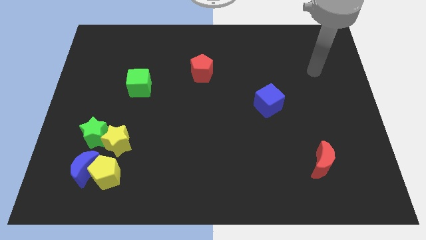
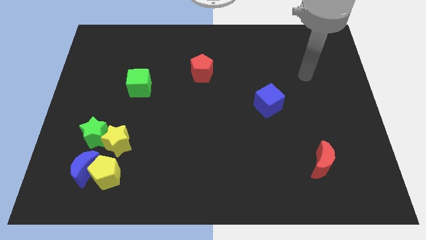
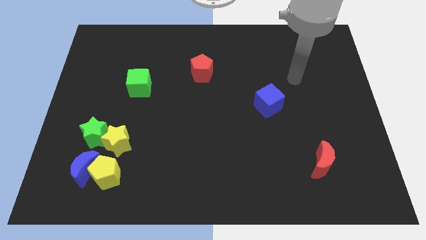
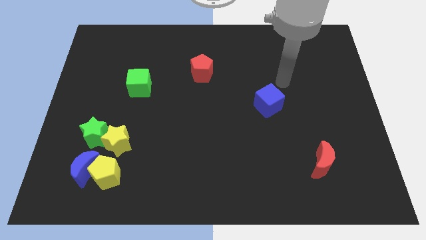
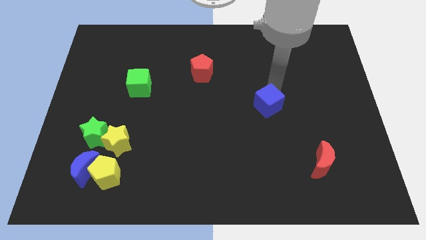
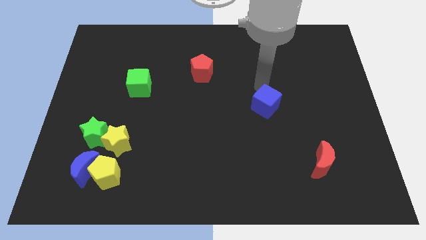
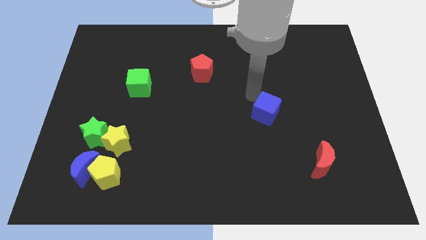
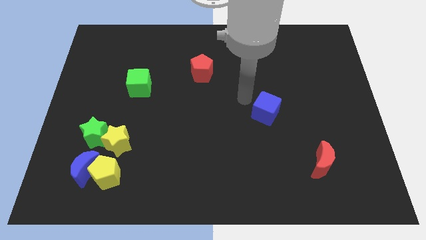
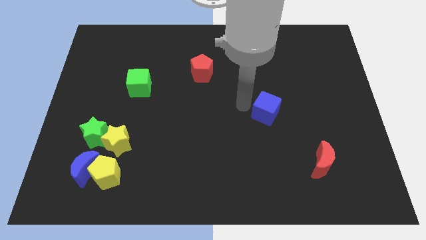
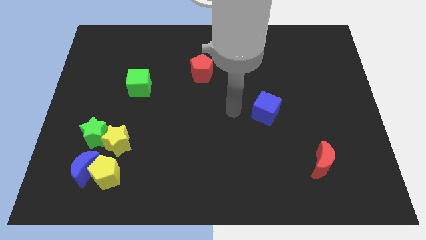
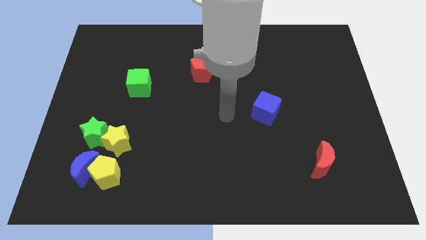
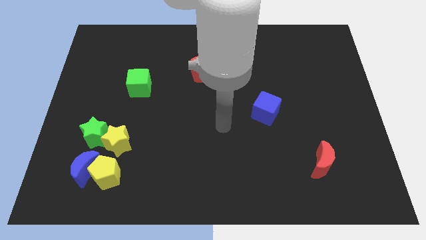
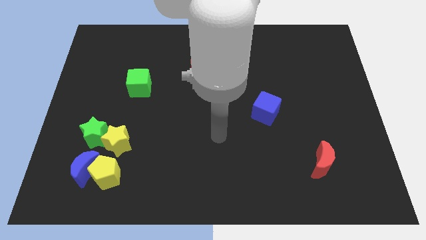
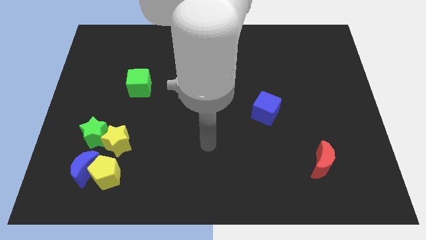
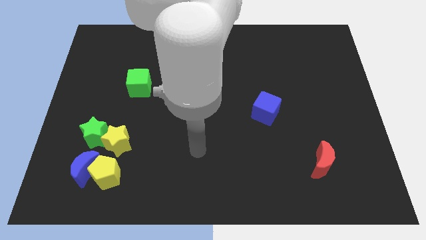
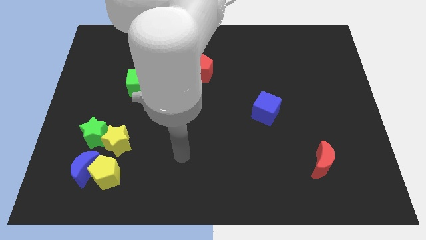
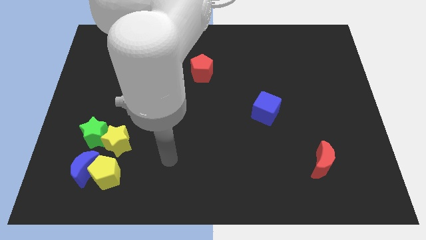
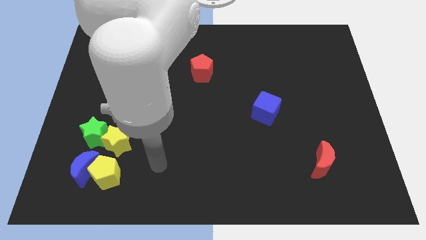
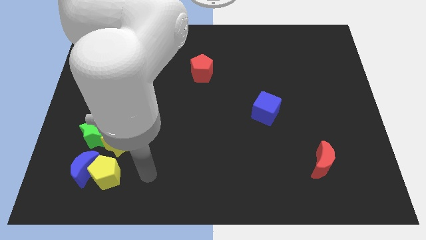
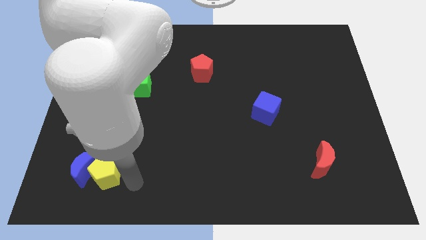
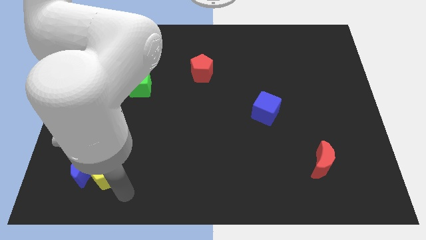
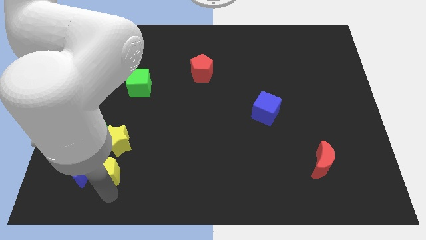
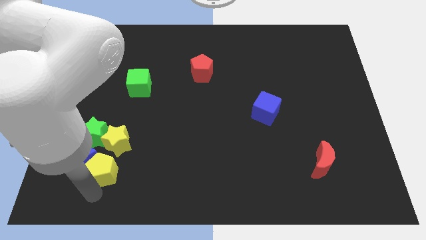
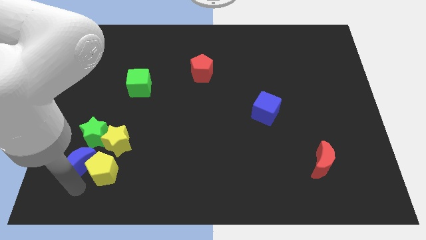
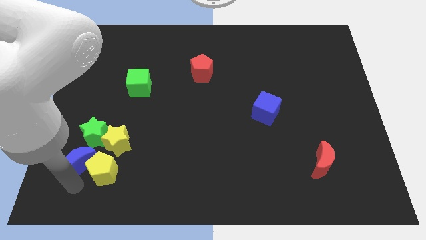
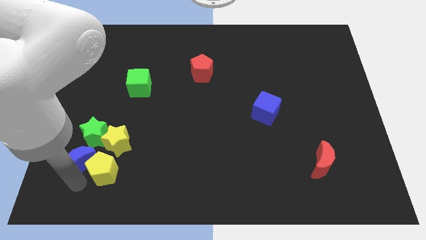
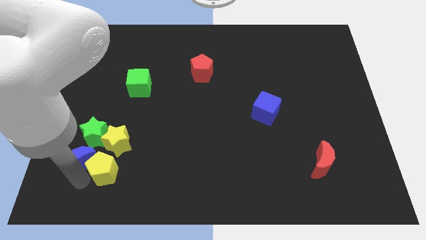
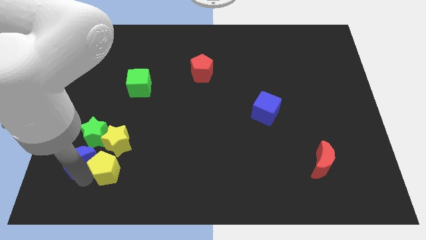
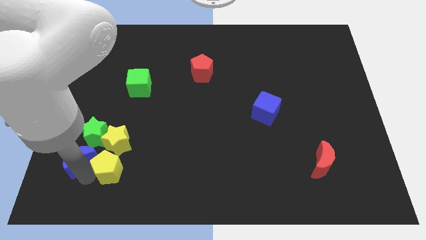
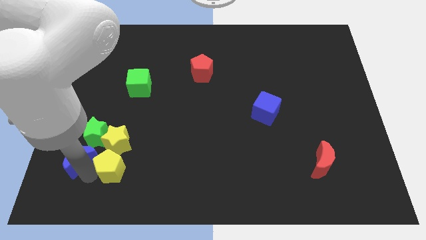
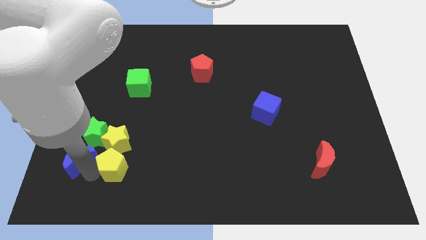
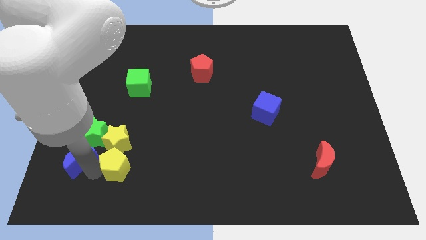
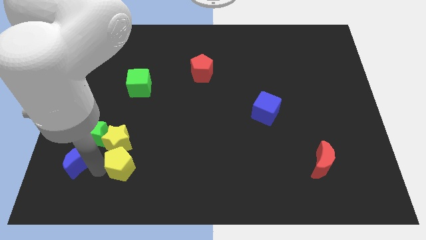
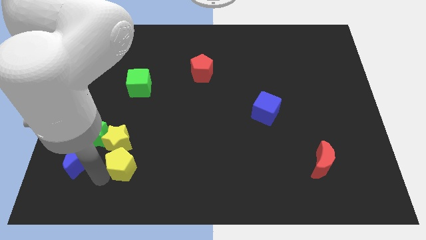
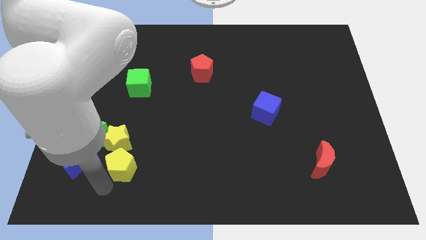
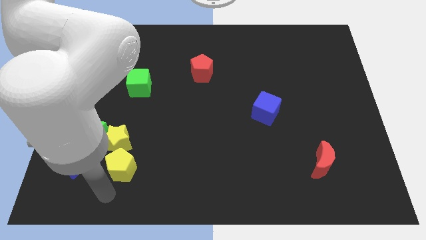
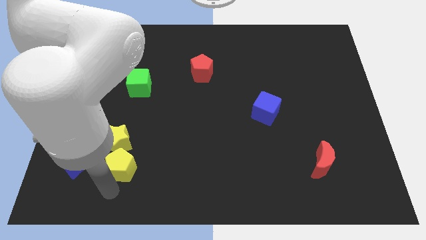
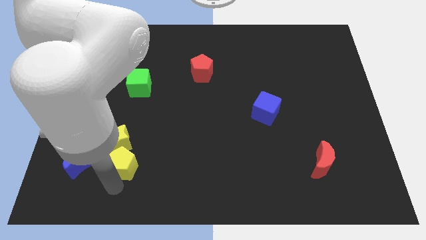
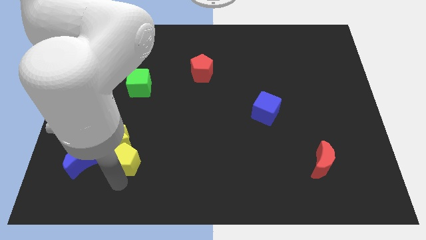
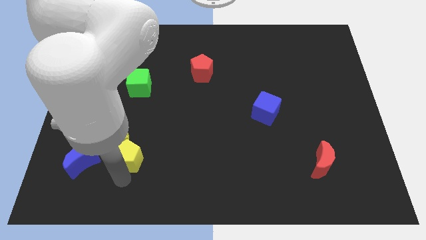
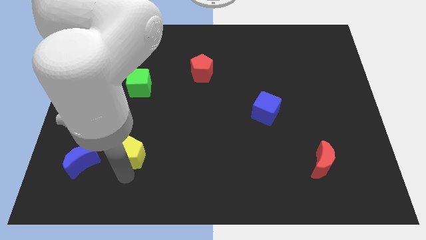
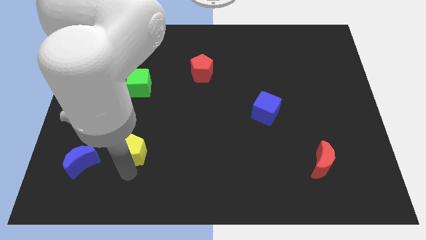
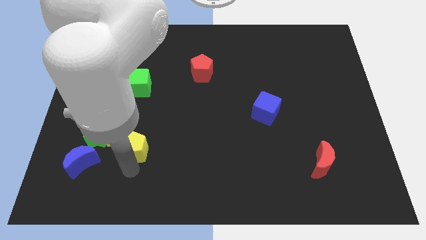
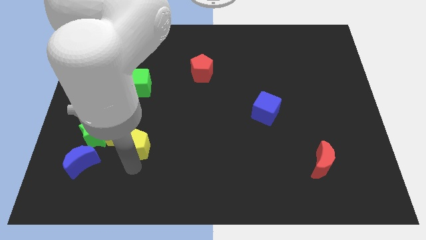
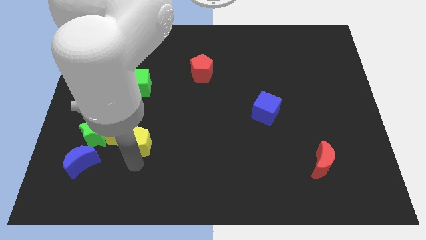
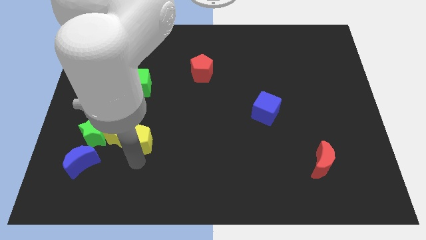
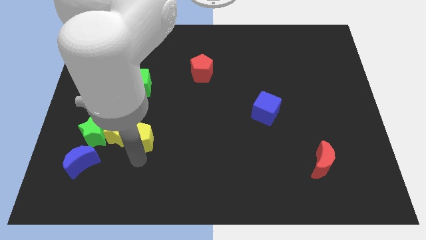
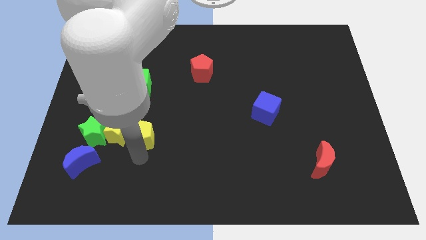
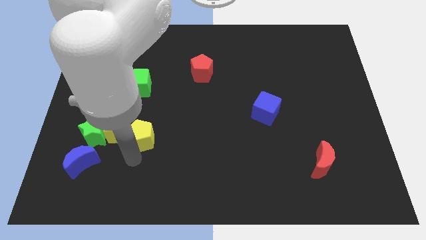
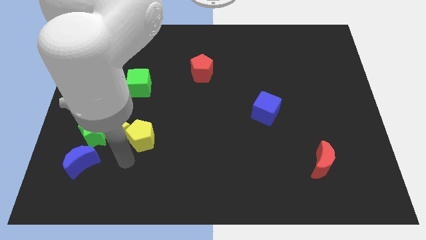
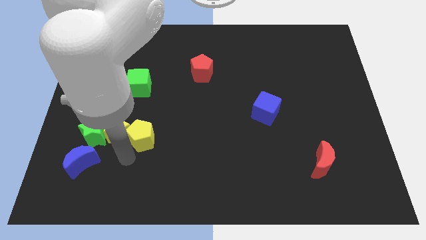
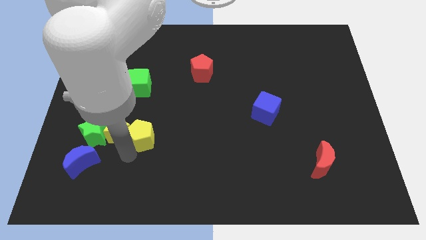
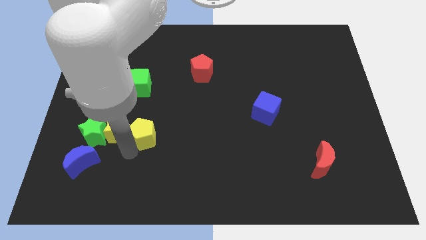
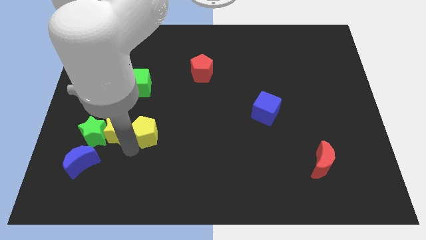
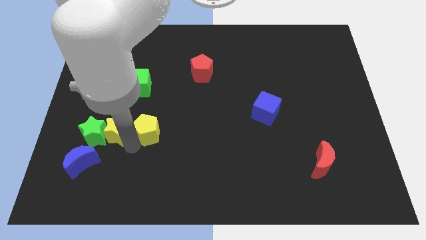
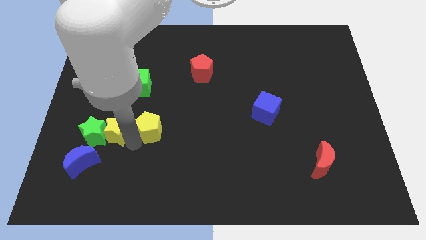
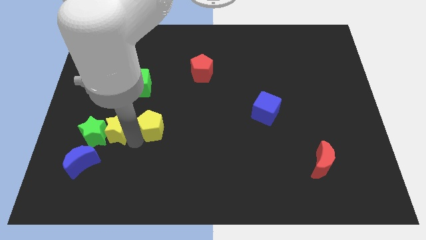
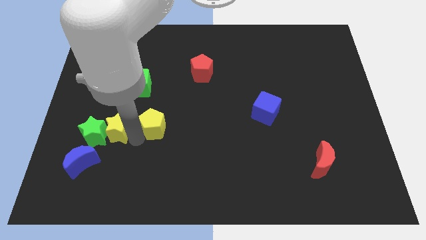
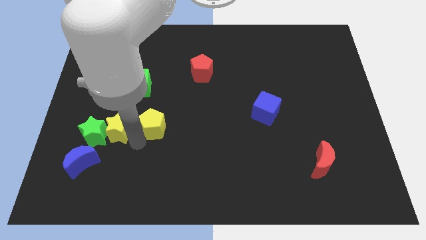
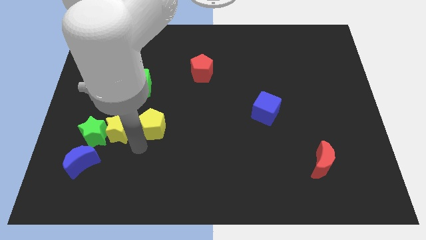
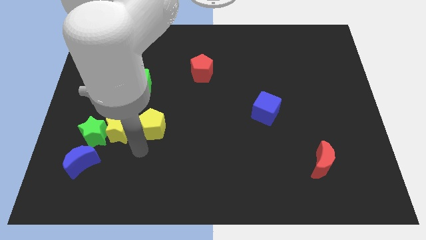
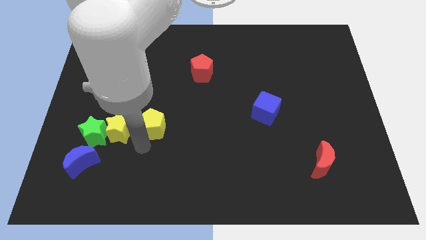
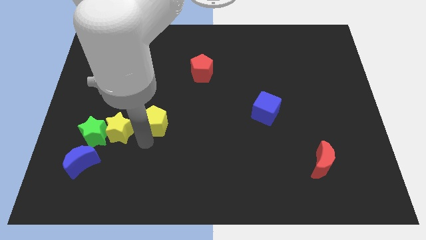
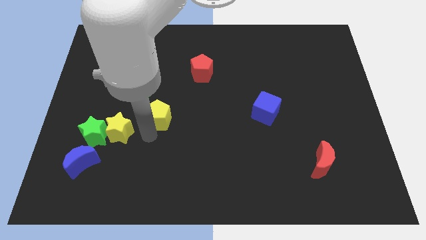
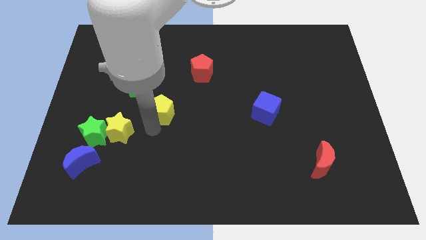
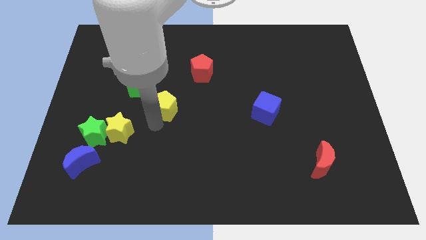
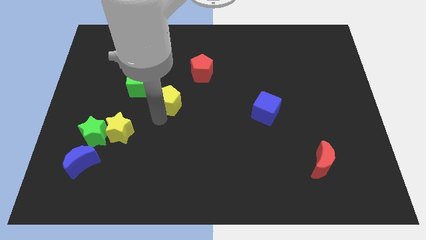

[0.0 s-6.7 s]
slide the yellow pentagon diagonally down and to the left of the red pentagon

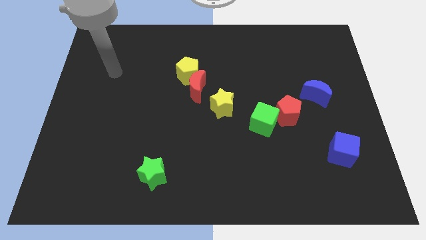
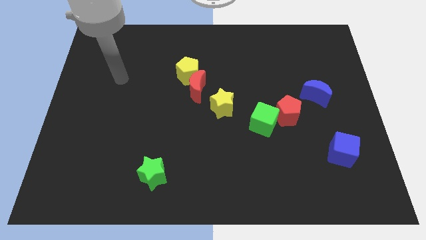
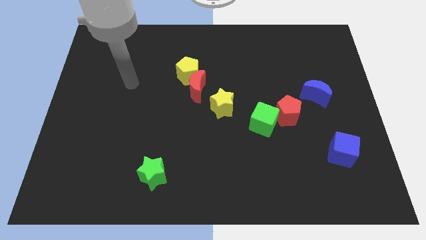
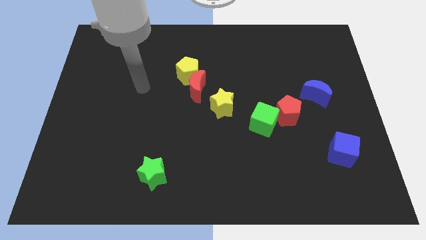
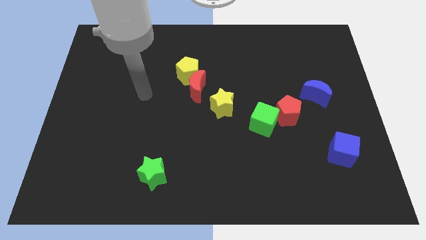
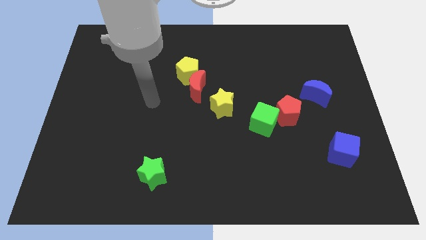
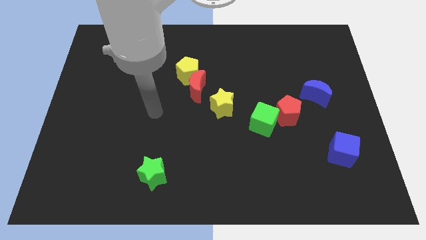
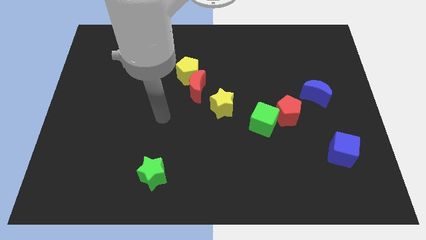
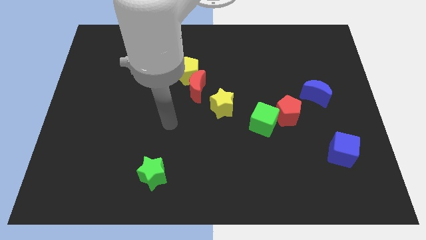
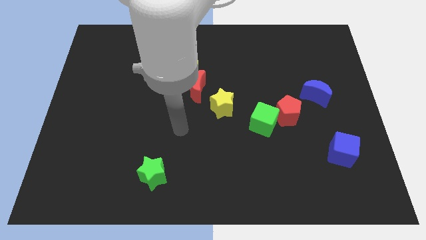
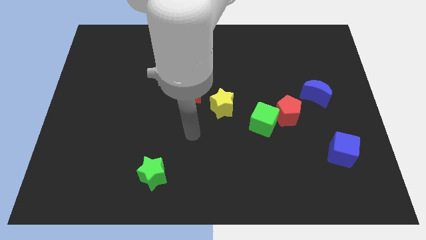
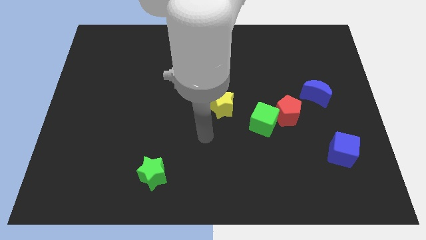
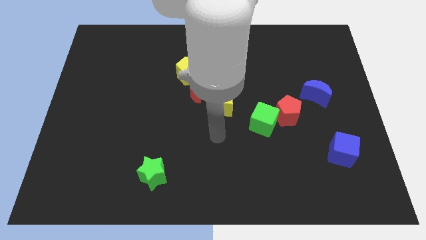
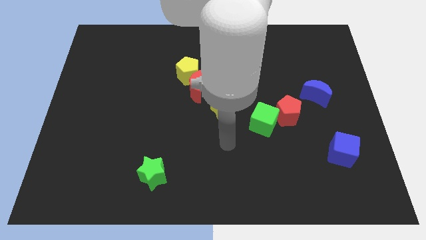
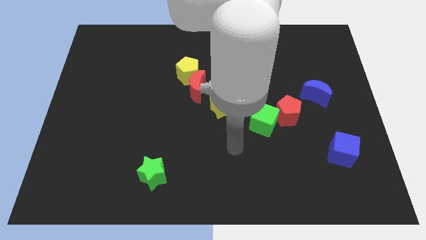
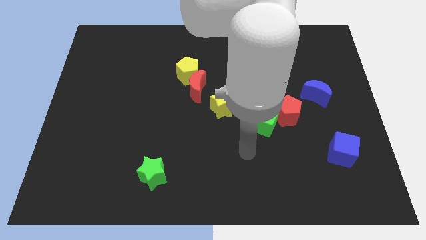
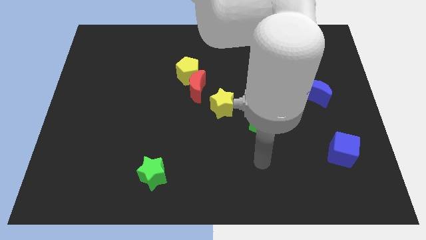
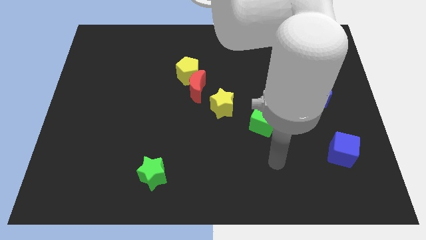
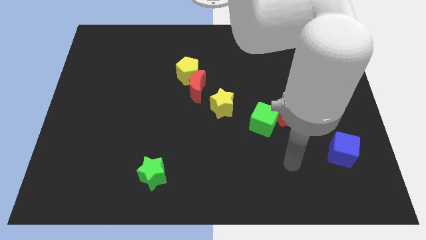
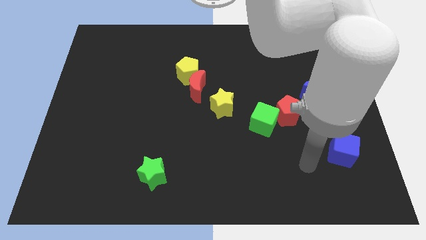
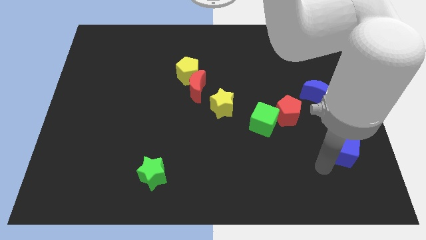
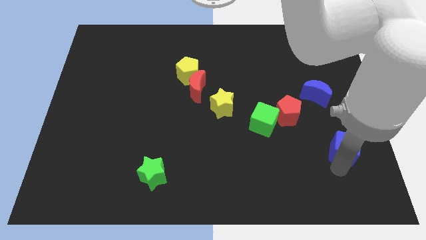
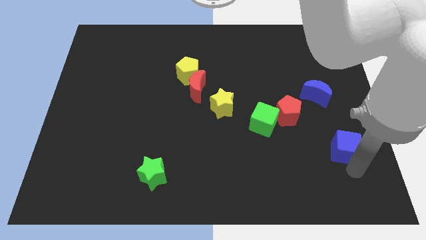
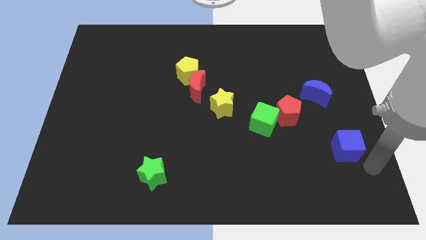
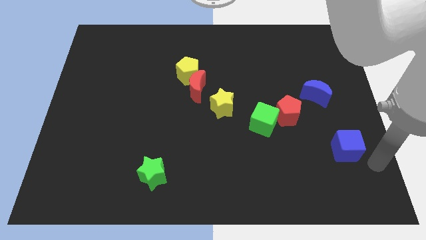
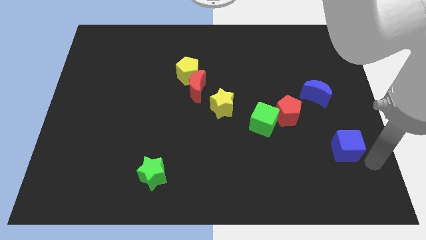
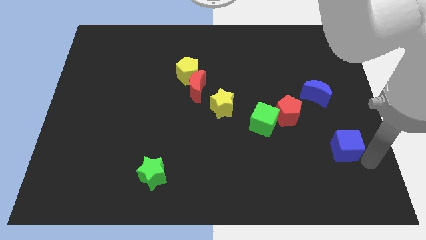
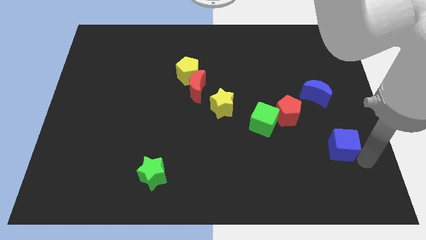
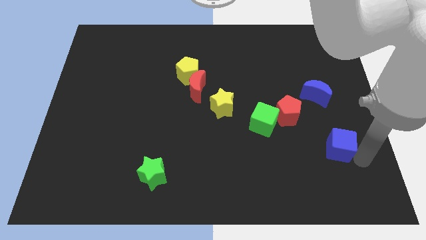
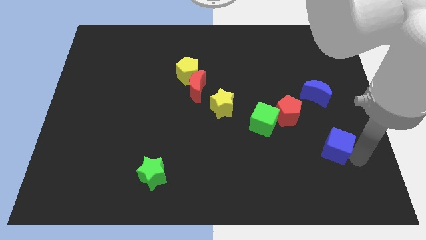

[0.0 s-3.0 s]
push the blue cube to the bottom right of the red pentagon
